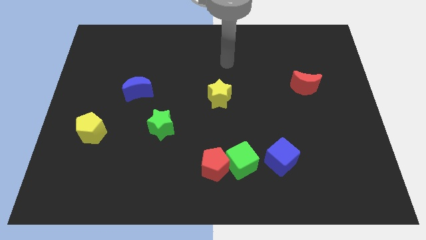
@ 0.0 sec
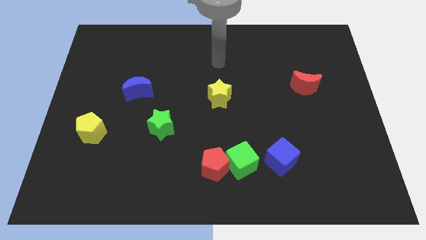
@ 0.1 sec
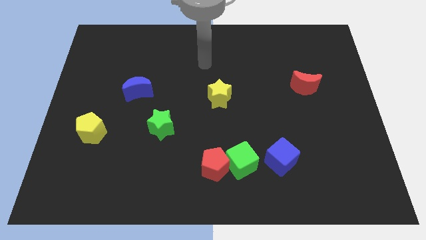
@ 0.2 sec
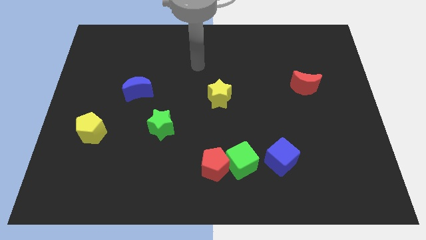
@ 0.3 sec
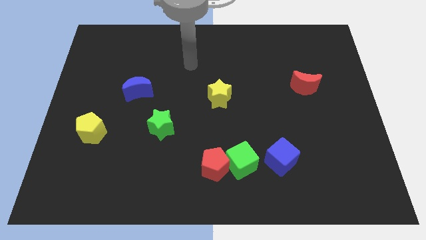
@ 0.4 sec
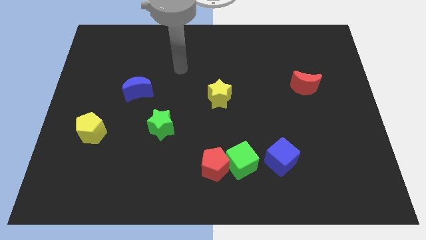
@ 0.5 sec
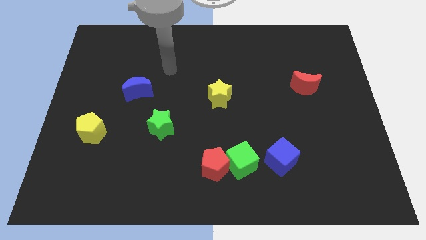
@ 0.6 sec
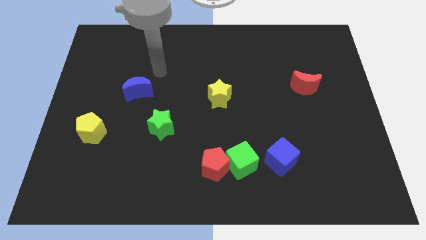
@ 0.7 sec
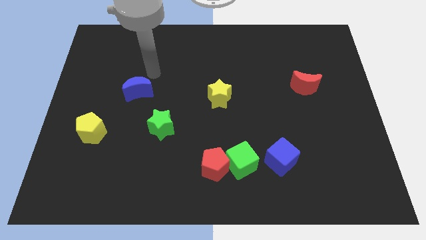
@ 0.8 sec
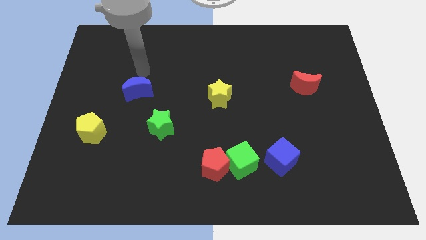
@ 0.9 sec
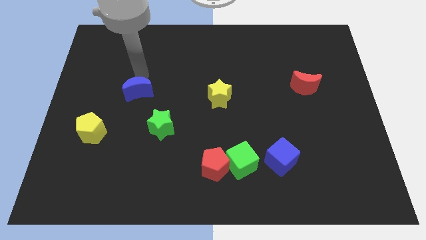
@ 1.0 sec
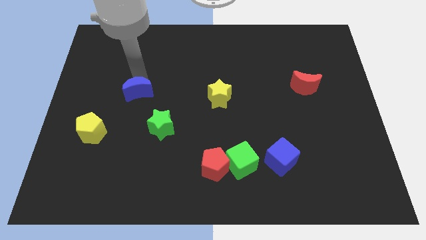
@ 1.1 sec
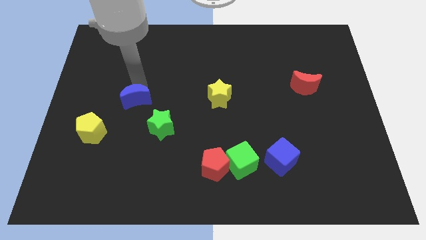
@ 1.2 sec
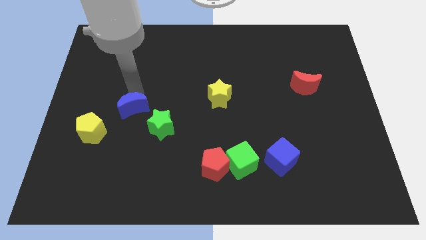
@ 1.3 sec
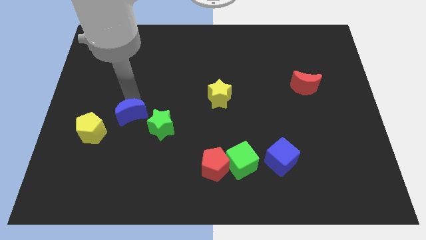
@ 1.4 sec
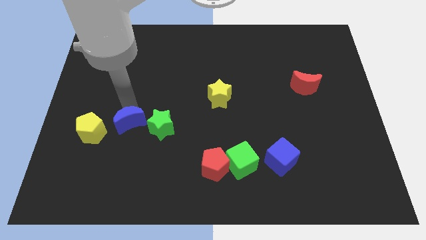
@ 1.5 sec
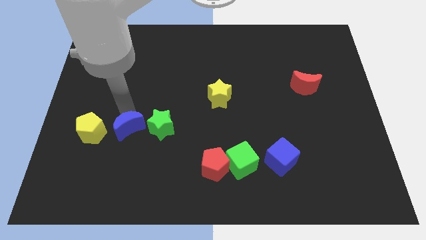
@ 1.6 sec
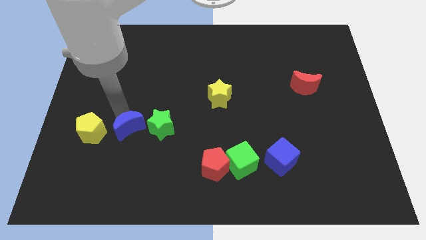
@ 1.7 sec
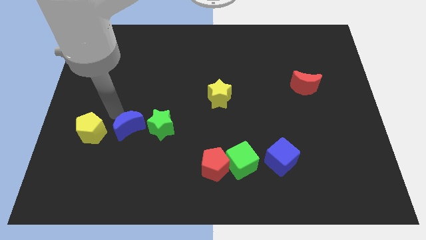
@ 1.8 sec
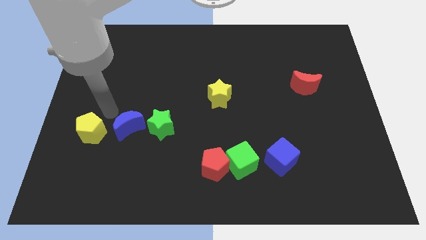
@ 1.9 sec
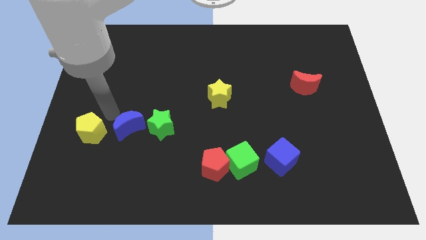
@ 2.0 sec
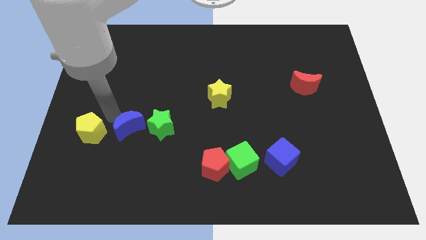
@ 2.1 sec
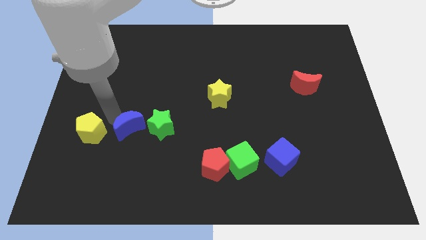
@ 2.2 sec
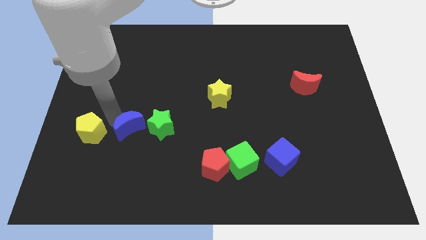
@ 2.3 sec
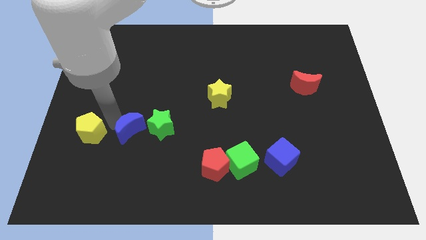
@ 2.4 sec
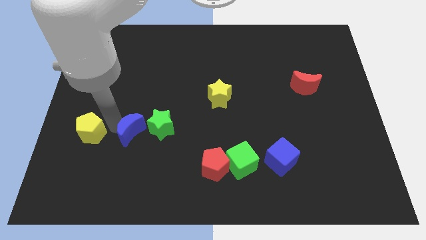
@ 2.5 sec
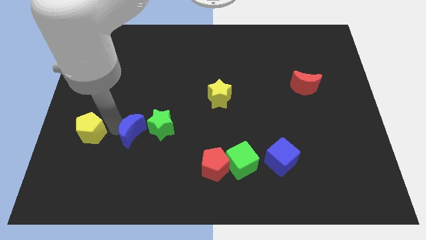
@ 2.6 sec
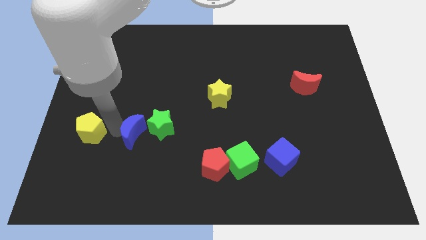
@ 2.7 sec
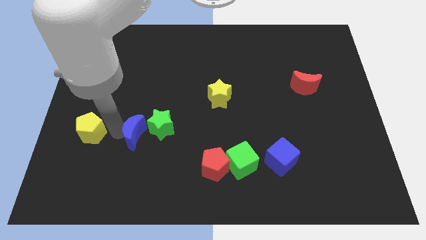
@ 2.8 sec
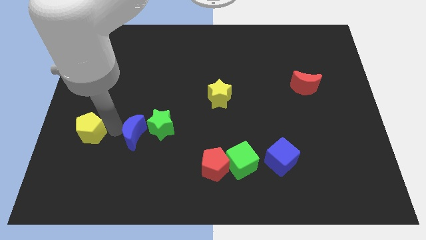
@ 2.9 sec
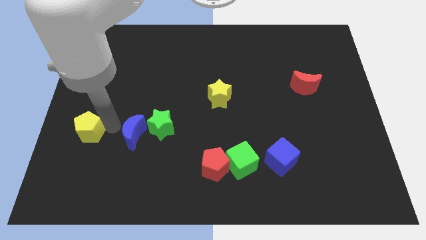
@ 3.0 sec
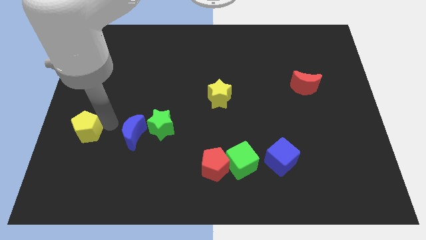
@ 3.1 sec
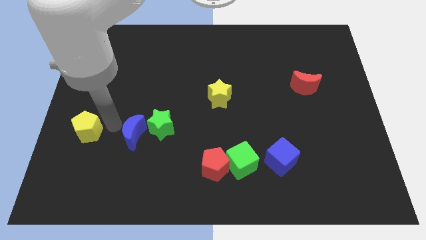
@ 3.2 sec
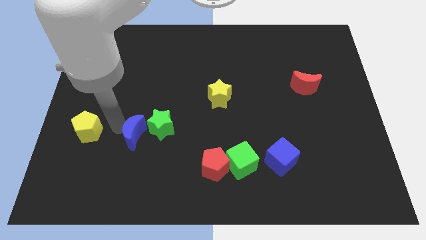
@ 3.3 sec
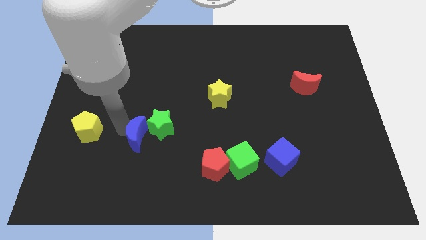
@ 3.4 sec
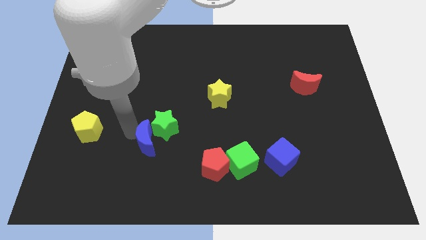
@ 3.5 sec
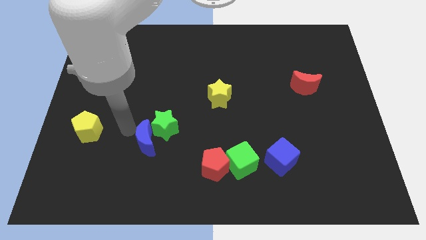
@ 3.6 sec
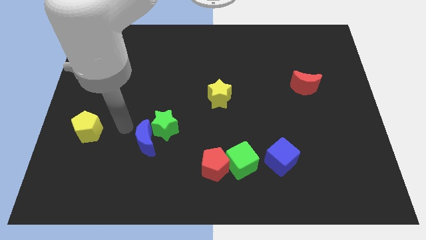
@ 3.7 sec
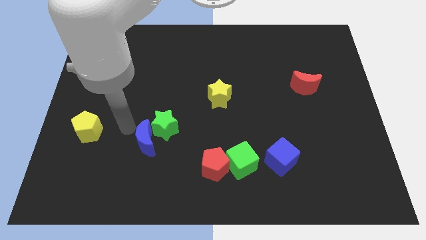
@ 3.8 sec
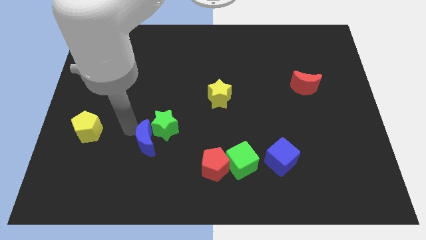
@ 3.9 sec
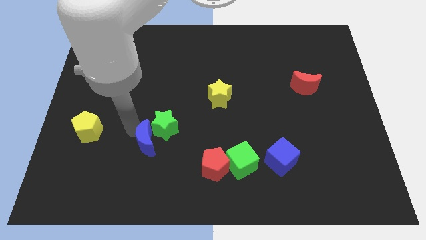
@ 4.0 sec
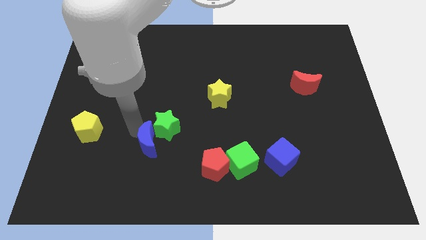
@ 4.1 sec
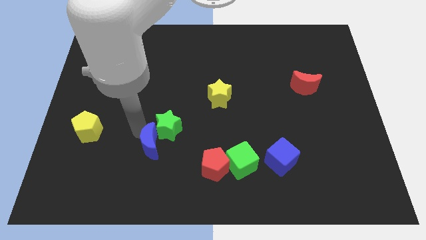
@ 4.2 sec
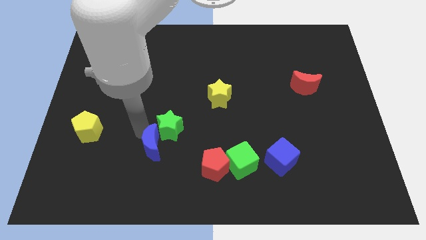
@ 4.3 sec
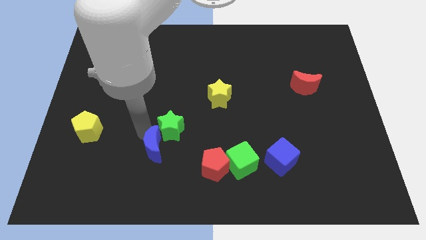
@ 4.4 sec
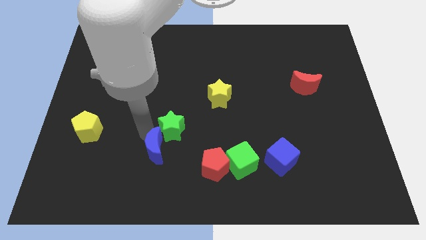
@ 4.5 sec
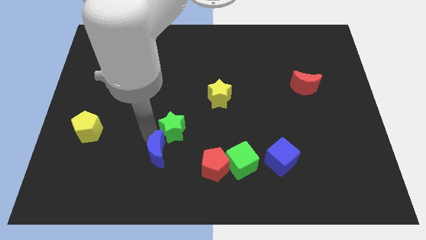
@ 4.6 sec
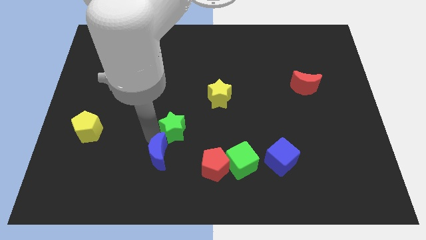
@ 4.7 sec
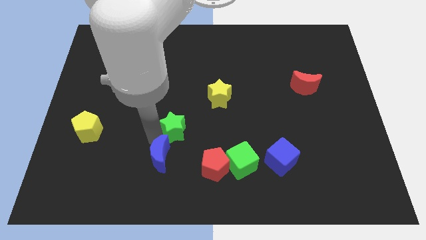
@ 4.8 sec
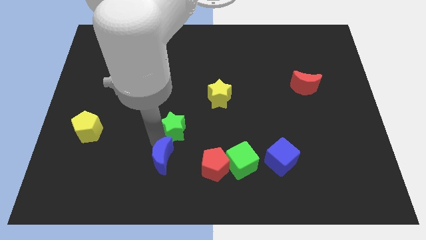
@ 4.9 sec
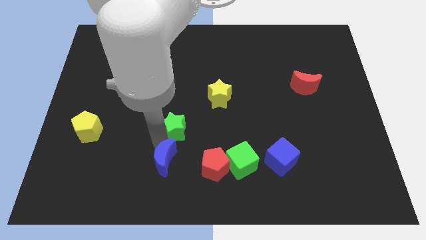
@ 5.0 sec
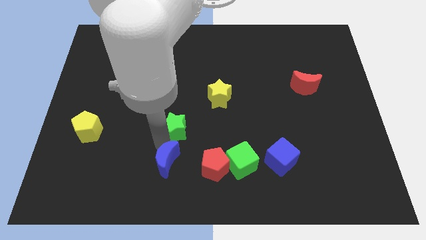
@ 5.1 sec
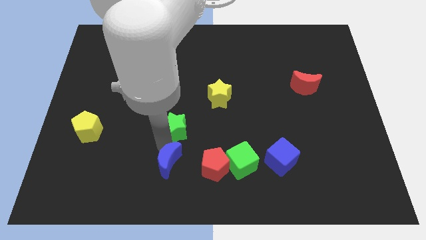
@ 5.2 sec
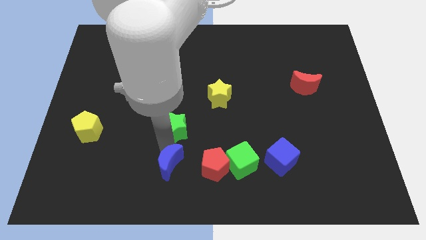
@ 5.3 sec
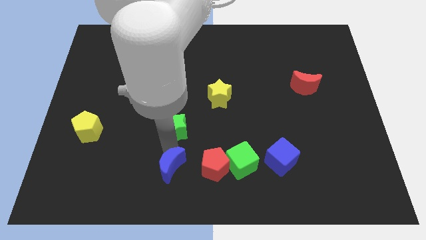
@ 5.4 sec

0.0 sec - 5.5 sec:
put the blue moon to the bottom
